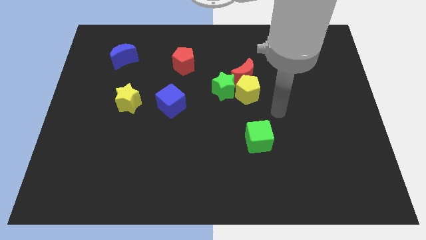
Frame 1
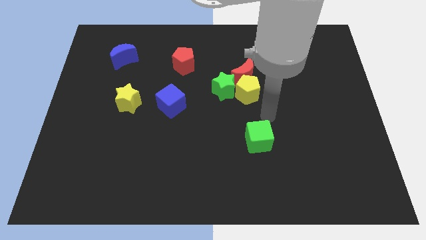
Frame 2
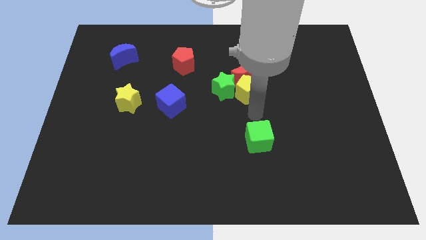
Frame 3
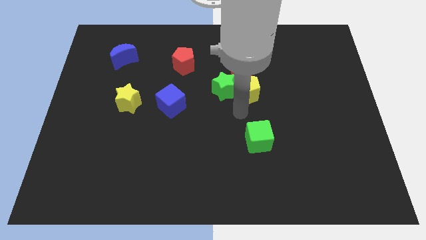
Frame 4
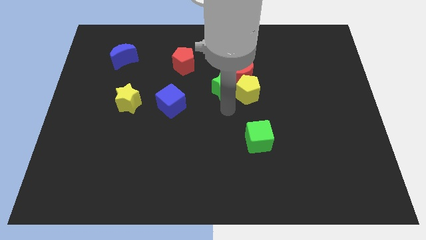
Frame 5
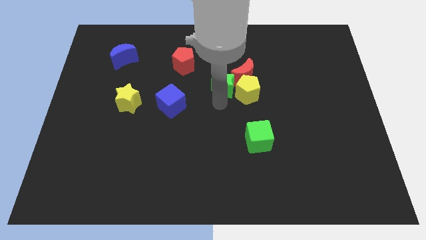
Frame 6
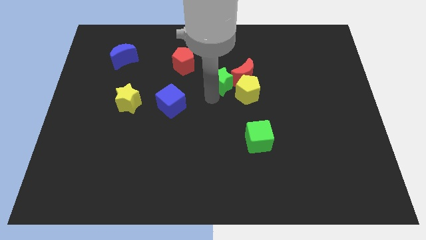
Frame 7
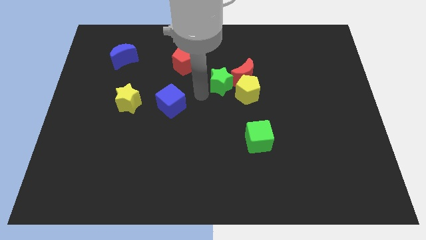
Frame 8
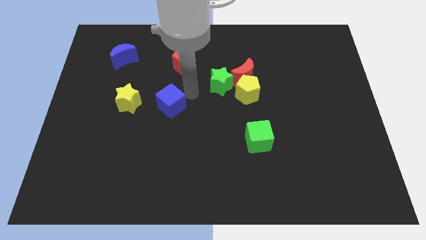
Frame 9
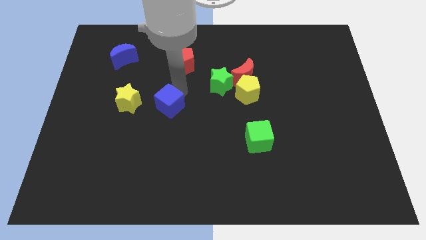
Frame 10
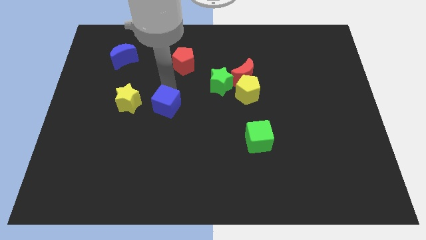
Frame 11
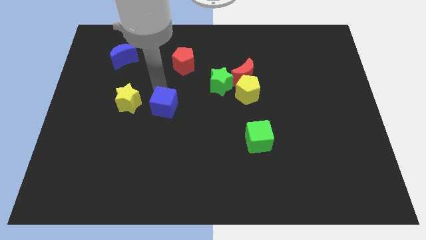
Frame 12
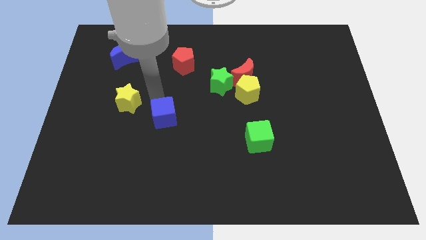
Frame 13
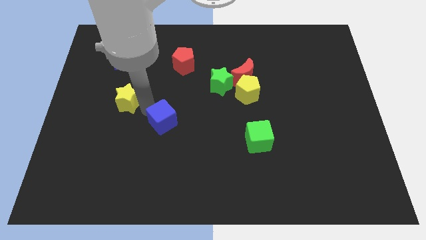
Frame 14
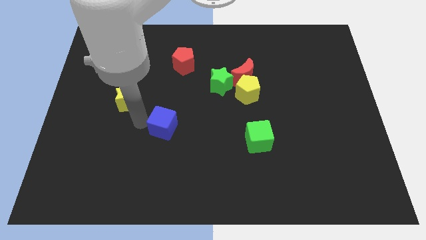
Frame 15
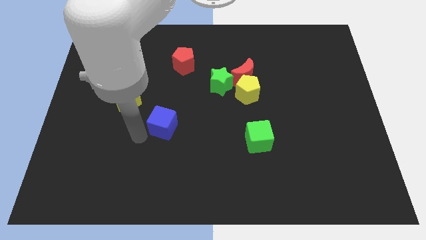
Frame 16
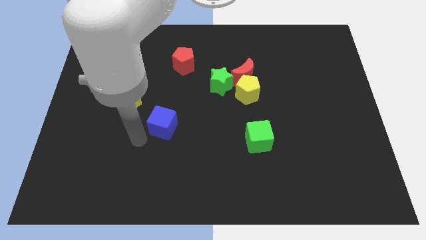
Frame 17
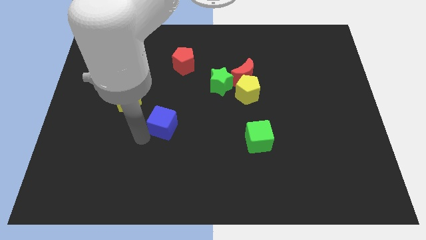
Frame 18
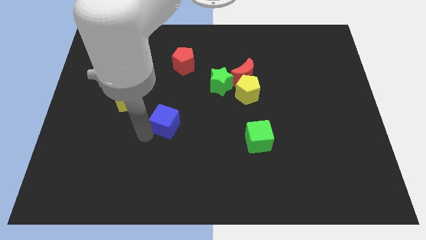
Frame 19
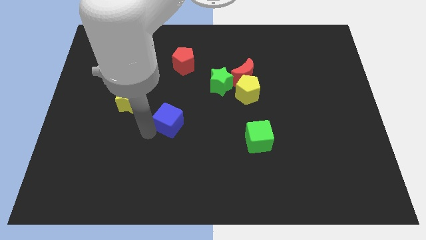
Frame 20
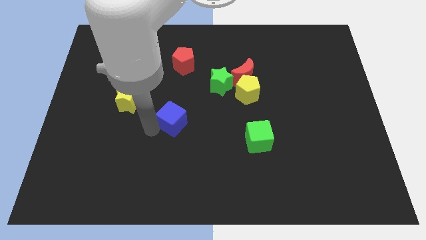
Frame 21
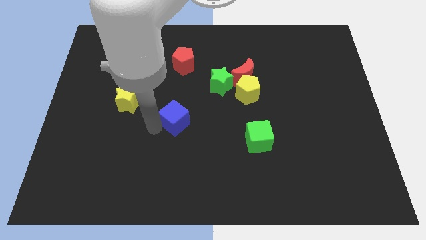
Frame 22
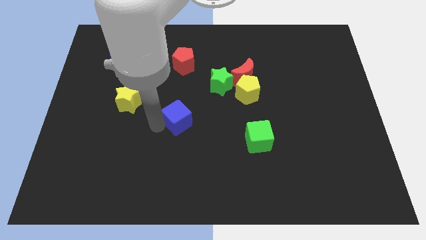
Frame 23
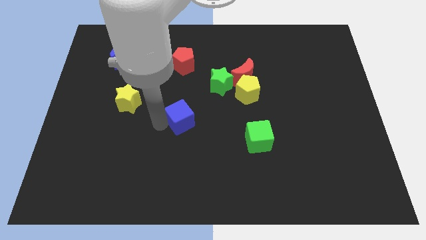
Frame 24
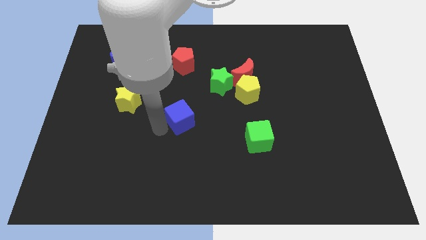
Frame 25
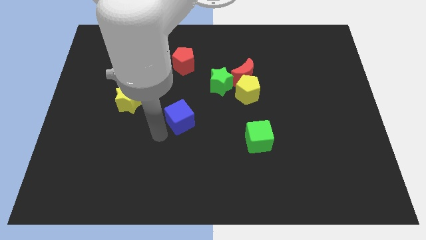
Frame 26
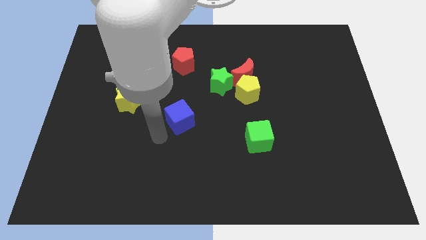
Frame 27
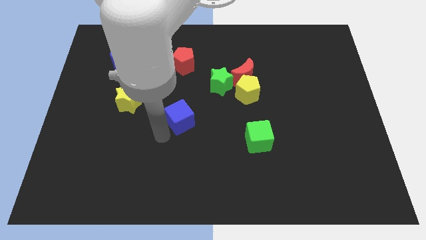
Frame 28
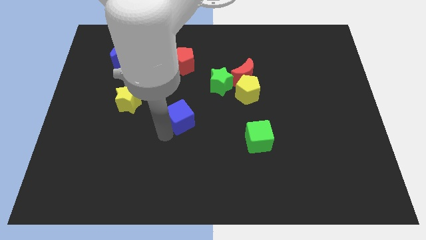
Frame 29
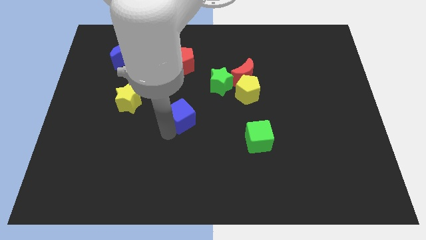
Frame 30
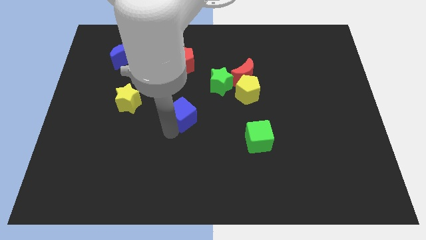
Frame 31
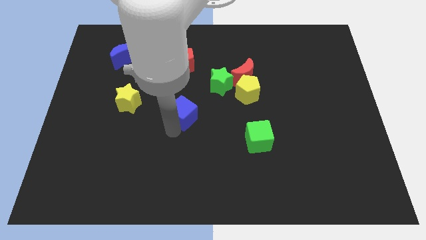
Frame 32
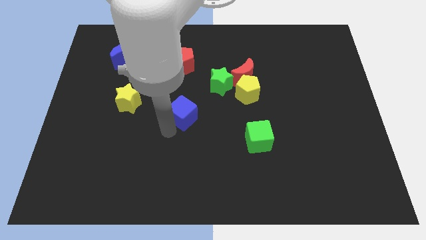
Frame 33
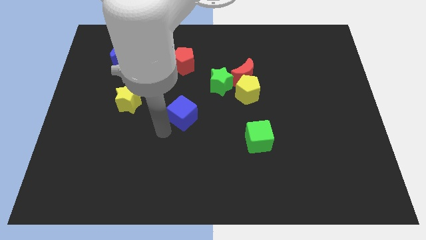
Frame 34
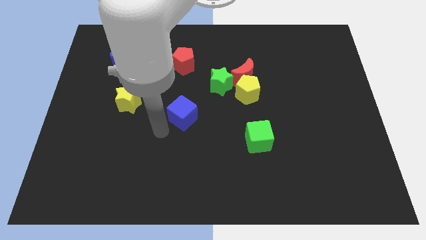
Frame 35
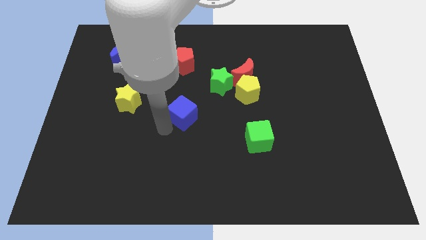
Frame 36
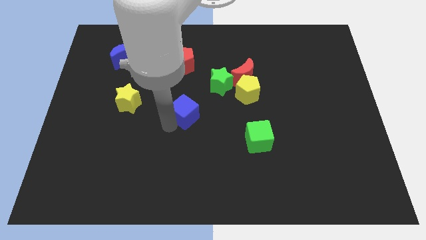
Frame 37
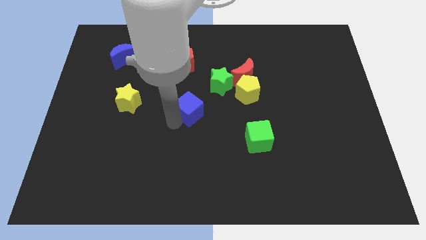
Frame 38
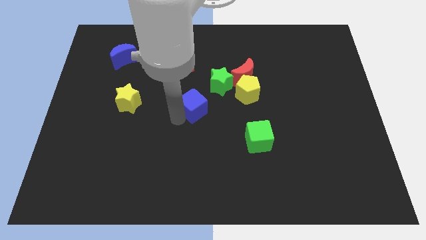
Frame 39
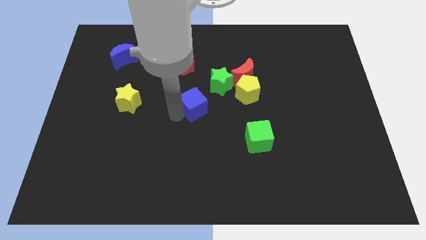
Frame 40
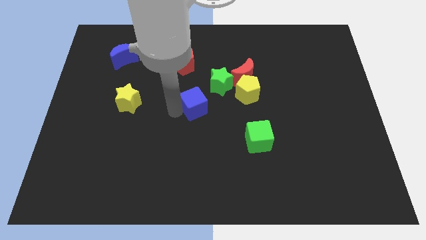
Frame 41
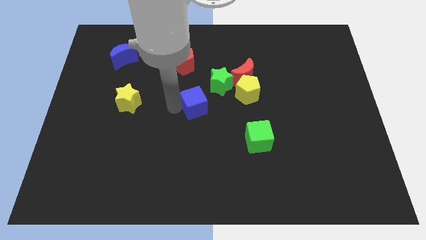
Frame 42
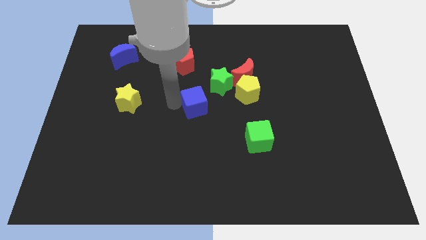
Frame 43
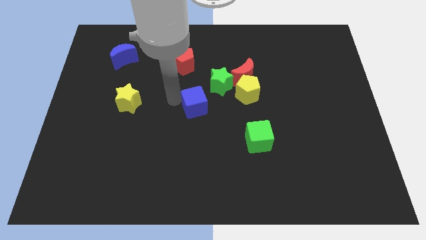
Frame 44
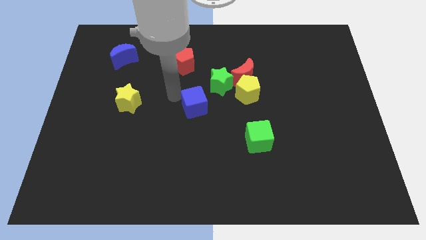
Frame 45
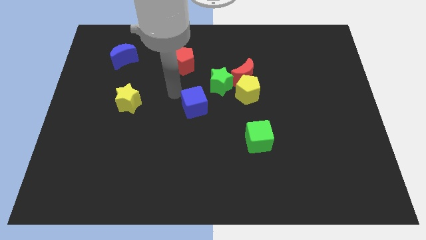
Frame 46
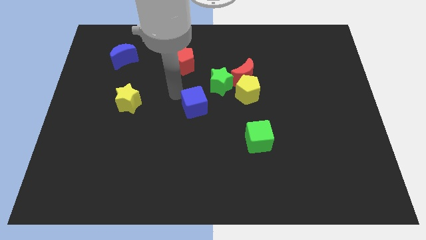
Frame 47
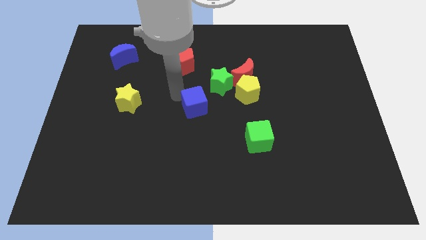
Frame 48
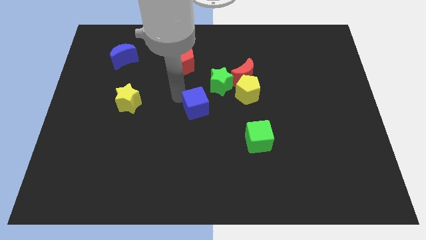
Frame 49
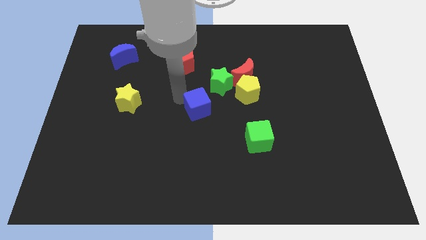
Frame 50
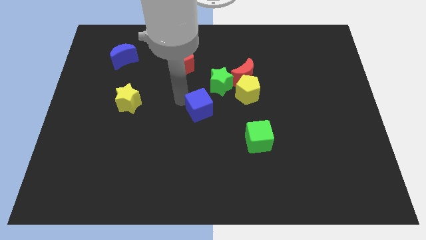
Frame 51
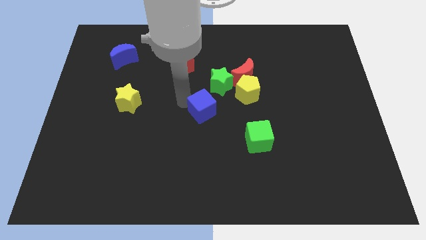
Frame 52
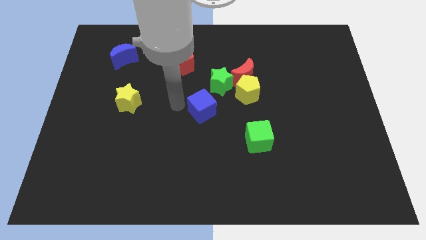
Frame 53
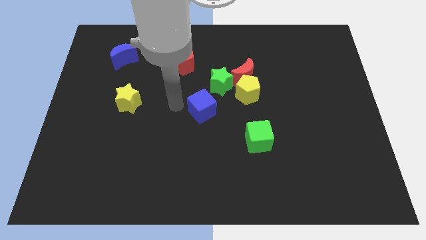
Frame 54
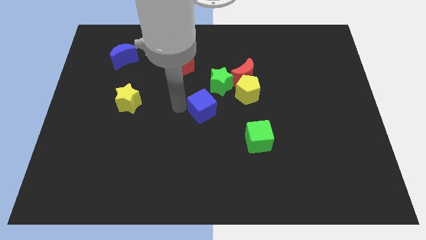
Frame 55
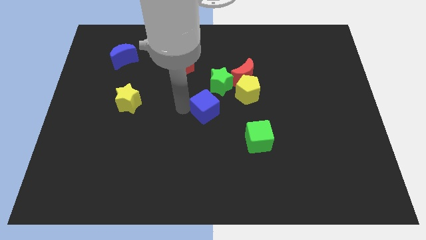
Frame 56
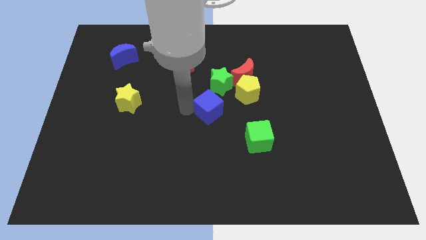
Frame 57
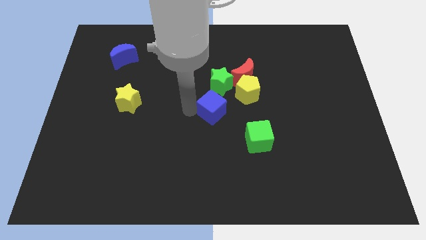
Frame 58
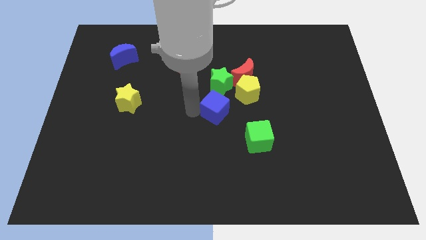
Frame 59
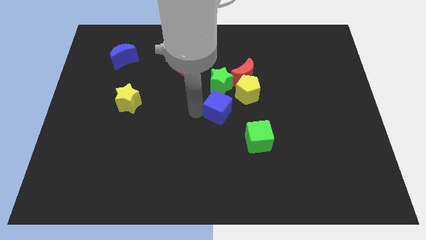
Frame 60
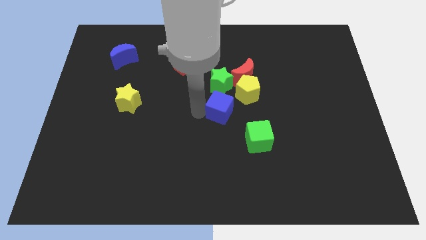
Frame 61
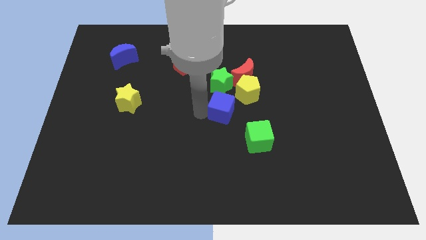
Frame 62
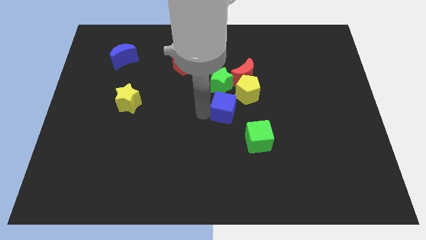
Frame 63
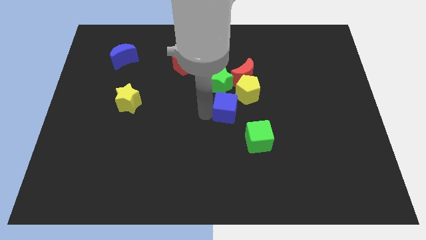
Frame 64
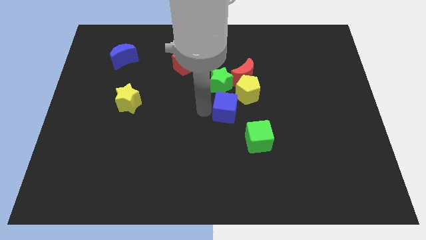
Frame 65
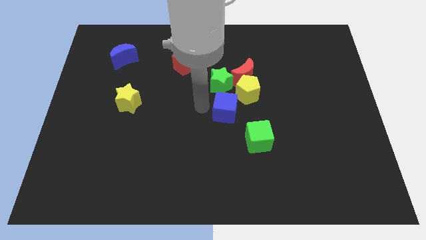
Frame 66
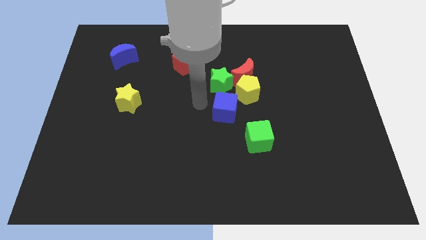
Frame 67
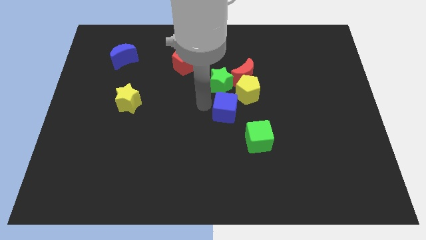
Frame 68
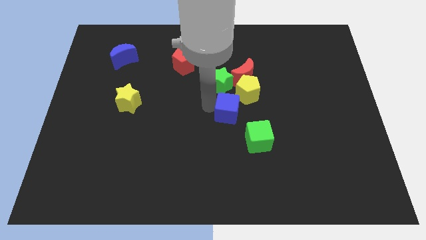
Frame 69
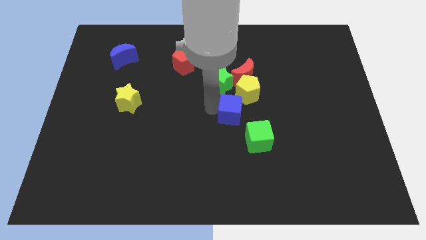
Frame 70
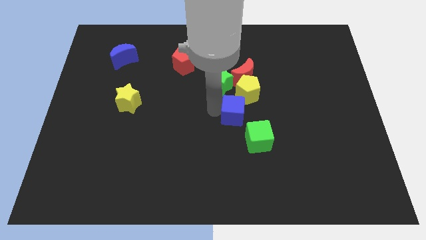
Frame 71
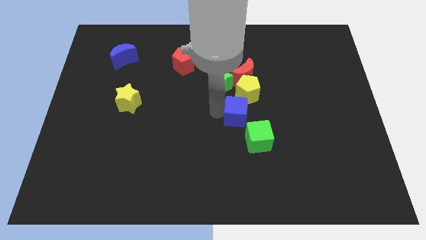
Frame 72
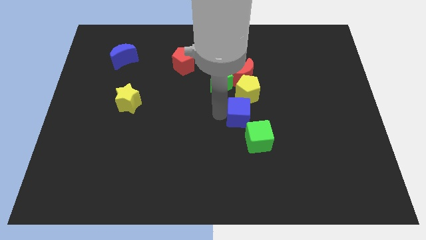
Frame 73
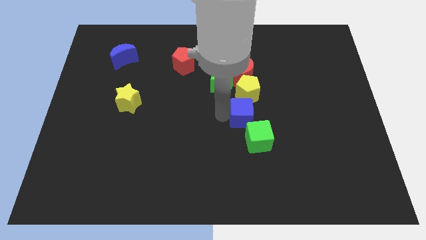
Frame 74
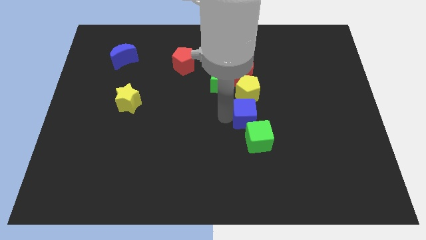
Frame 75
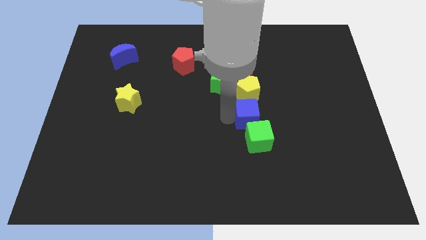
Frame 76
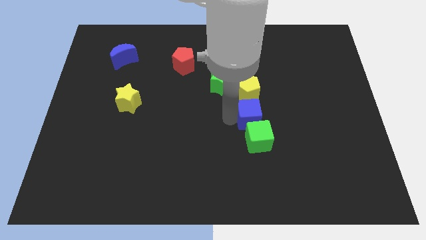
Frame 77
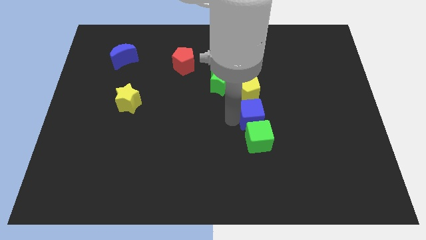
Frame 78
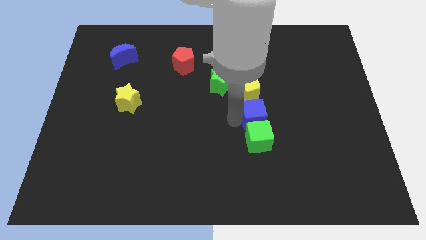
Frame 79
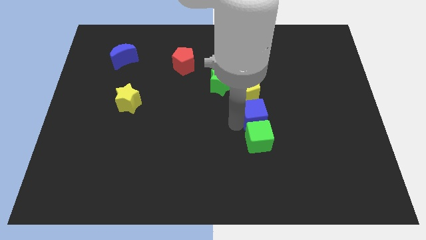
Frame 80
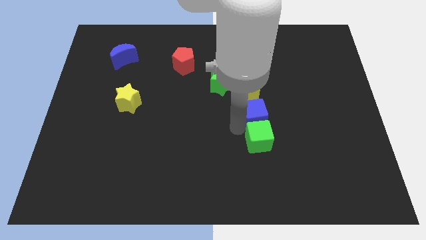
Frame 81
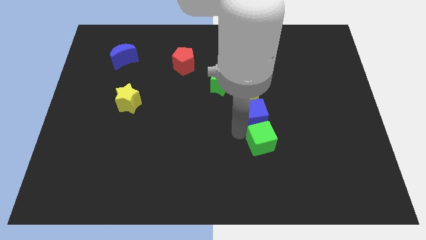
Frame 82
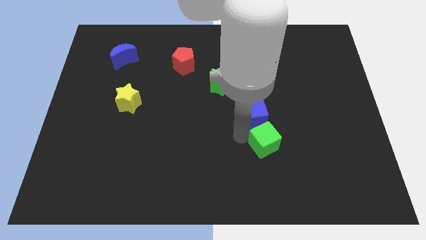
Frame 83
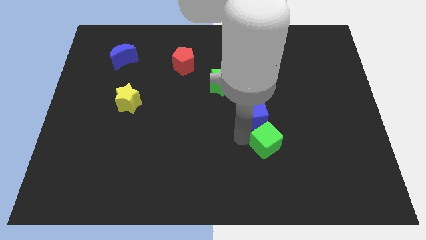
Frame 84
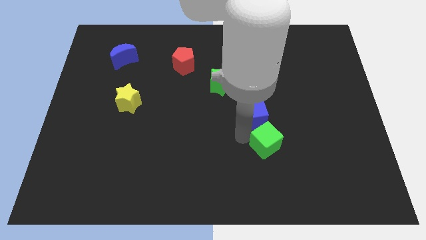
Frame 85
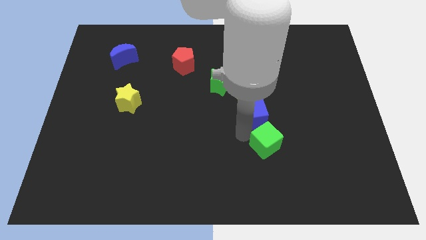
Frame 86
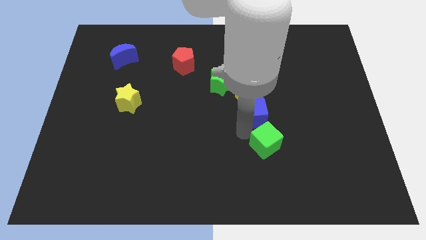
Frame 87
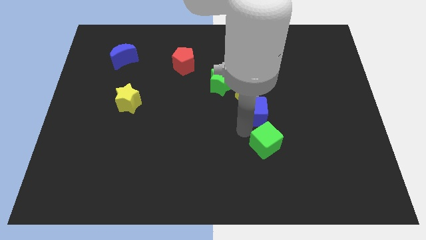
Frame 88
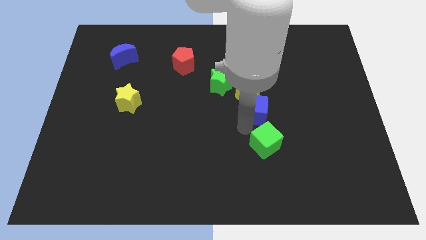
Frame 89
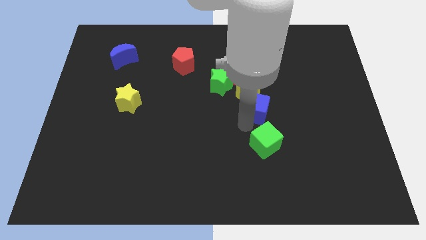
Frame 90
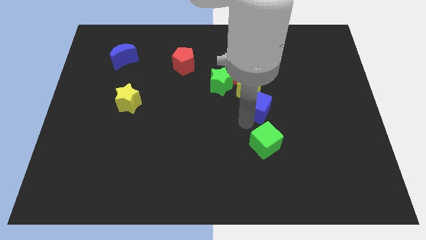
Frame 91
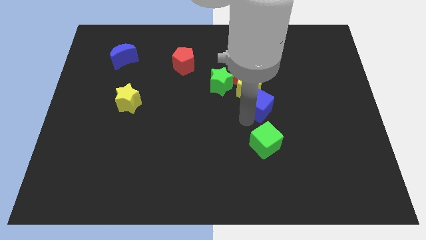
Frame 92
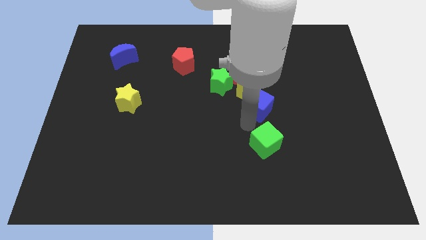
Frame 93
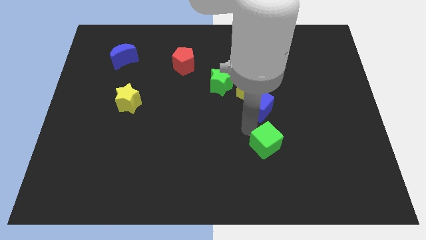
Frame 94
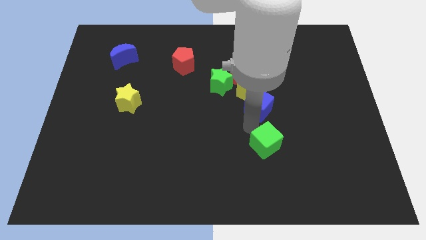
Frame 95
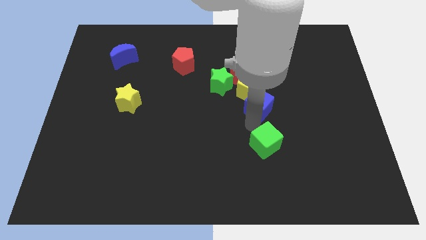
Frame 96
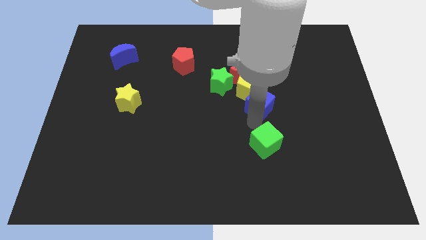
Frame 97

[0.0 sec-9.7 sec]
slide the blue cube diagonally down and to the right of the red moon
